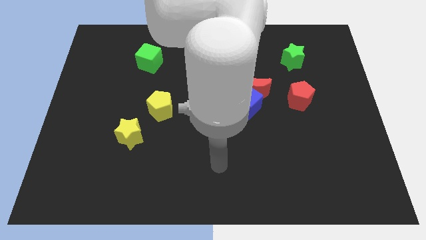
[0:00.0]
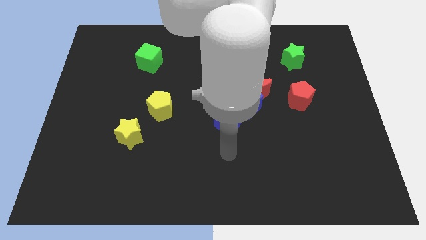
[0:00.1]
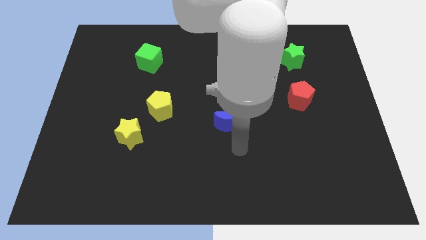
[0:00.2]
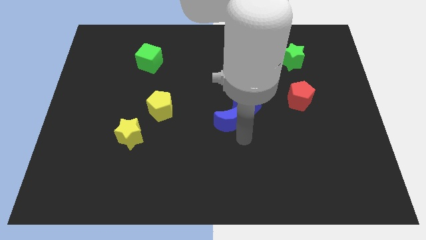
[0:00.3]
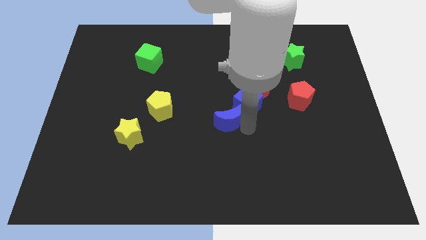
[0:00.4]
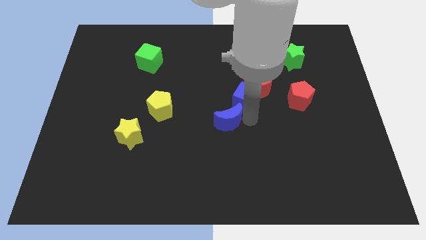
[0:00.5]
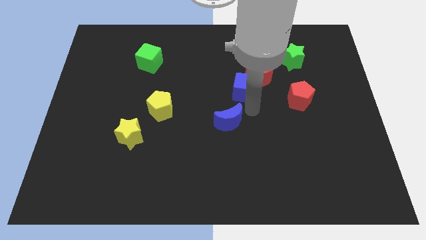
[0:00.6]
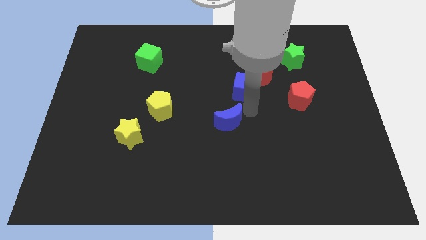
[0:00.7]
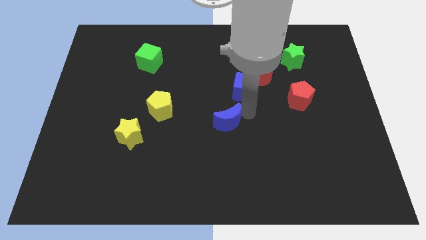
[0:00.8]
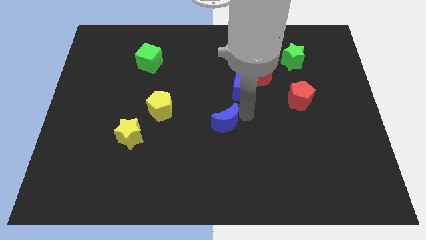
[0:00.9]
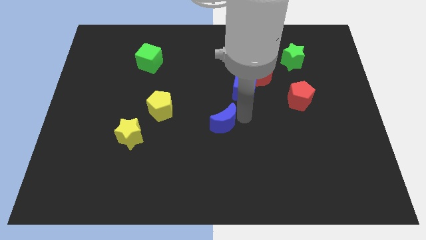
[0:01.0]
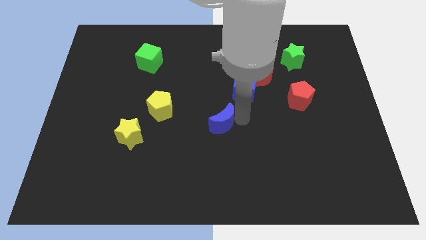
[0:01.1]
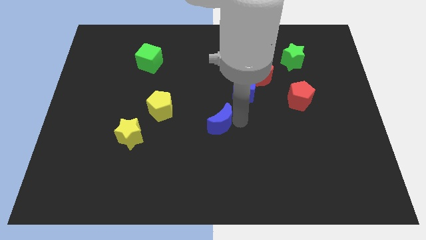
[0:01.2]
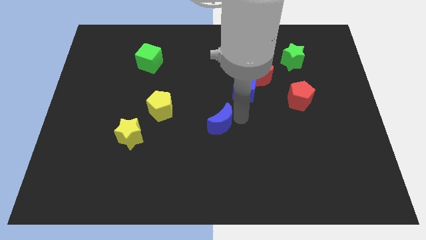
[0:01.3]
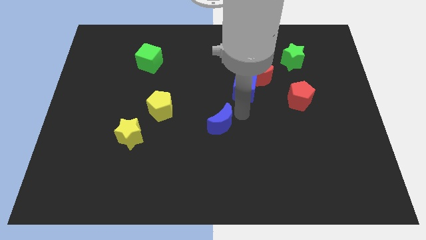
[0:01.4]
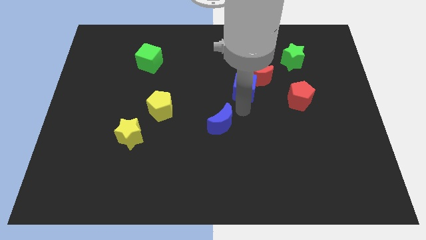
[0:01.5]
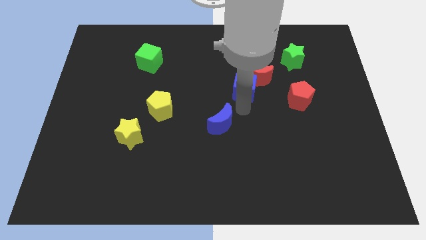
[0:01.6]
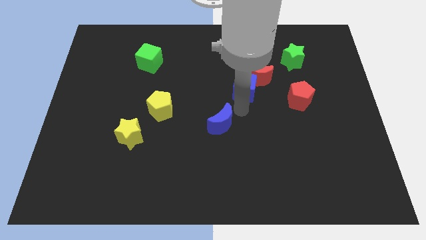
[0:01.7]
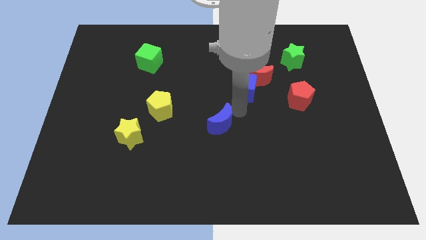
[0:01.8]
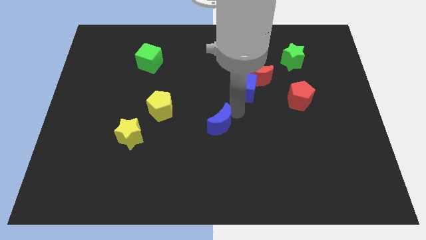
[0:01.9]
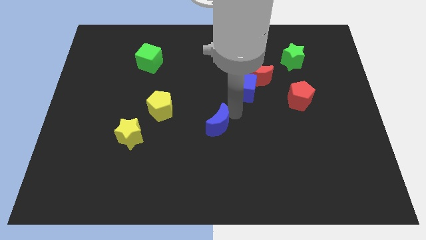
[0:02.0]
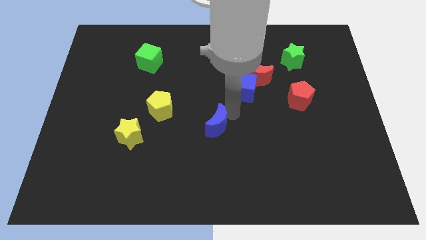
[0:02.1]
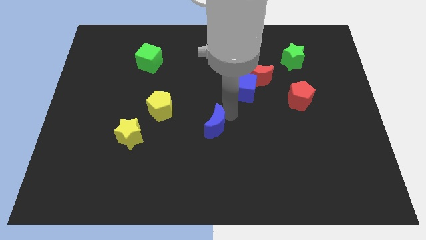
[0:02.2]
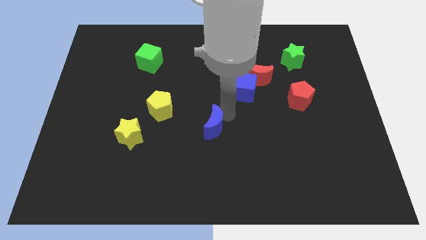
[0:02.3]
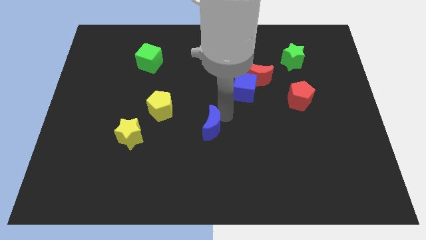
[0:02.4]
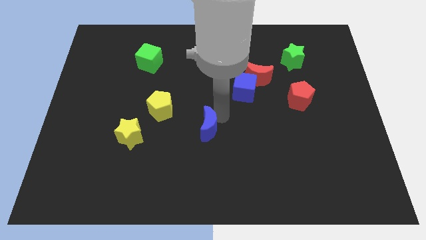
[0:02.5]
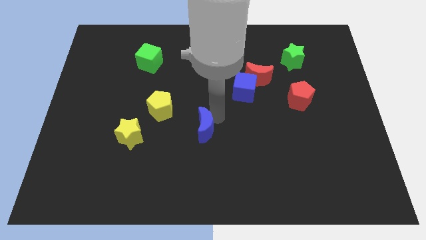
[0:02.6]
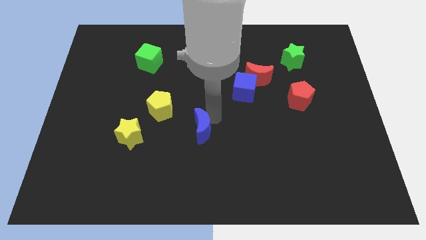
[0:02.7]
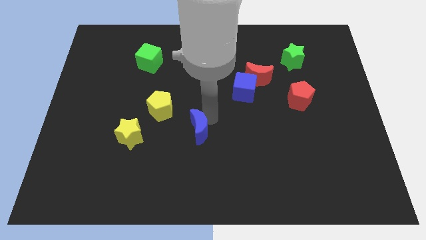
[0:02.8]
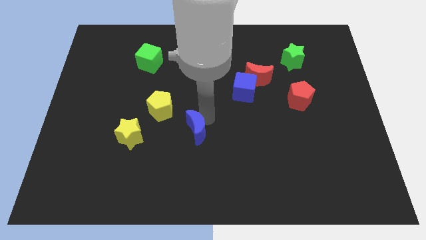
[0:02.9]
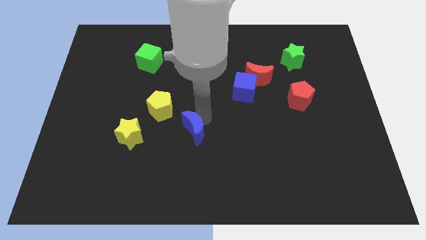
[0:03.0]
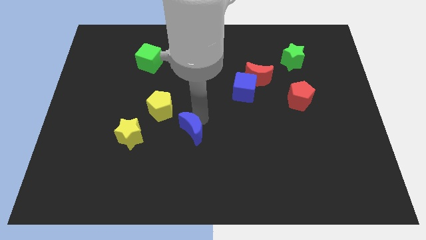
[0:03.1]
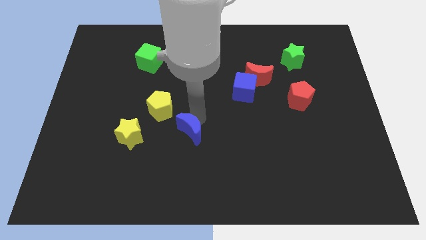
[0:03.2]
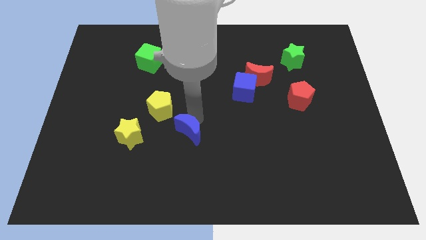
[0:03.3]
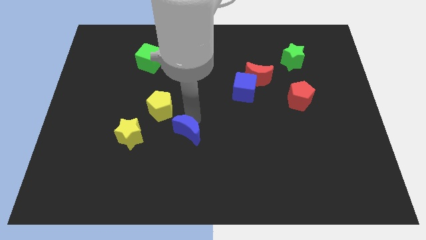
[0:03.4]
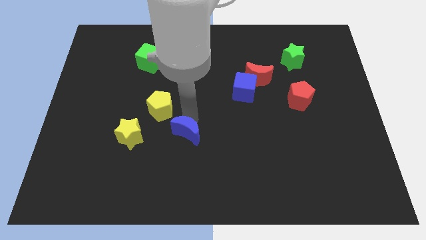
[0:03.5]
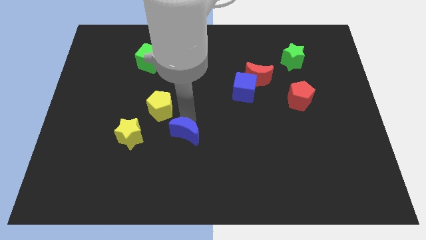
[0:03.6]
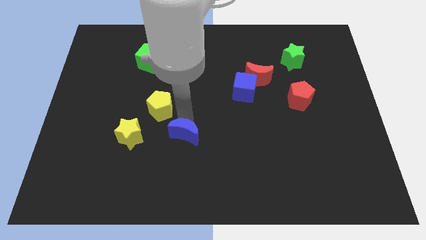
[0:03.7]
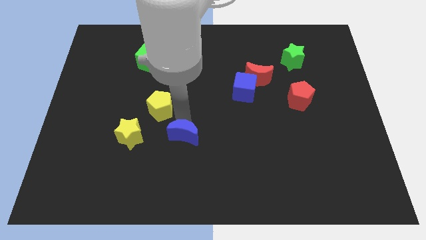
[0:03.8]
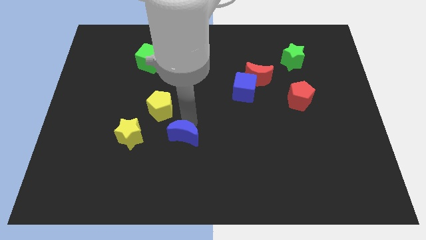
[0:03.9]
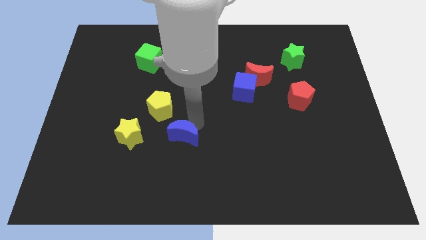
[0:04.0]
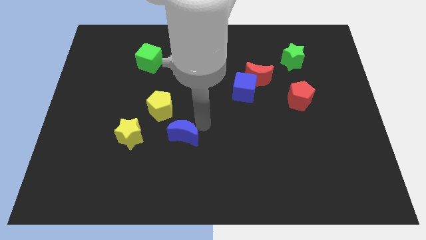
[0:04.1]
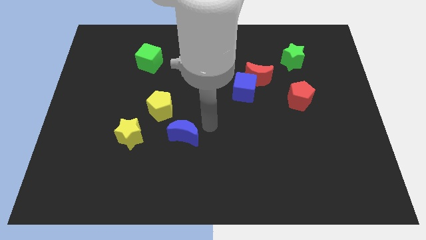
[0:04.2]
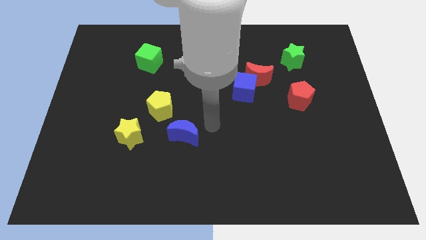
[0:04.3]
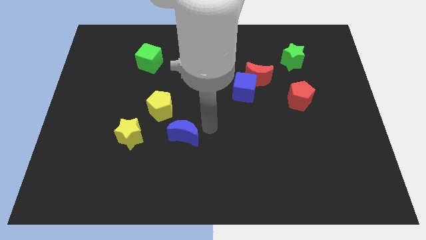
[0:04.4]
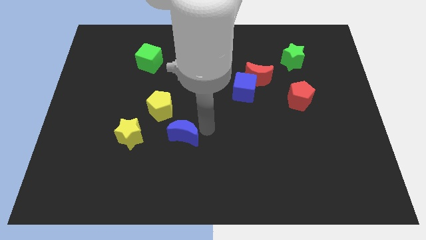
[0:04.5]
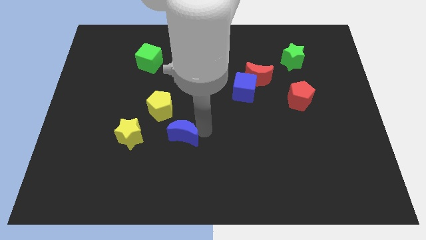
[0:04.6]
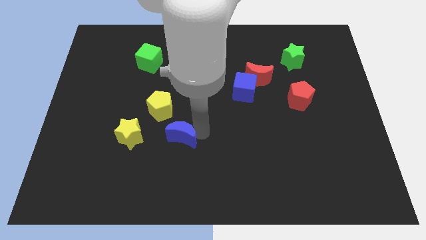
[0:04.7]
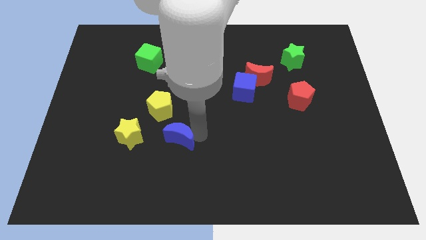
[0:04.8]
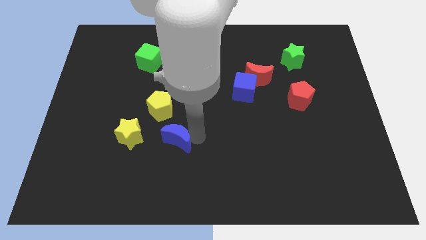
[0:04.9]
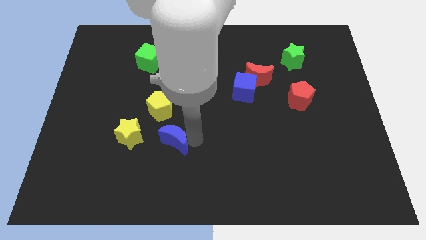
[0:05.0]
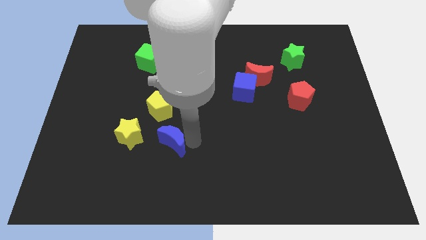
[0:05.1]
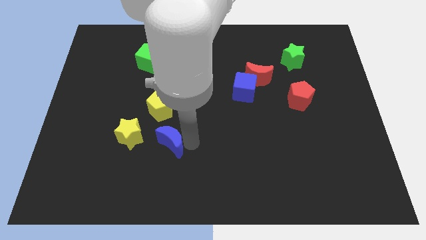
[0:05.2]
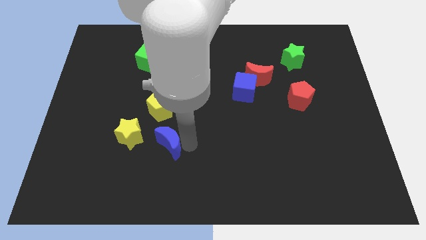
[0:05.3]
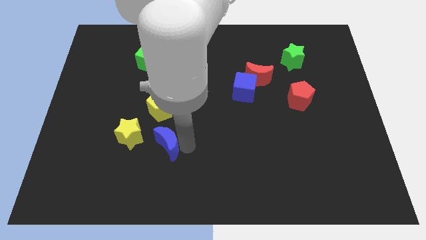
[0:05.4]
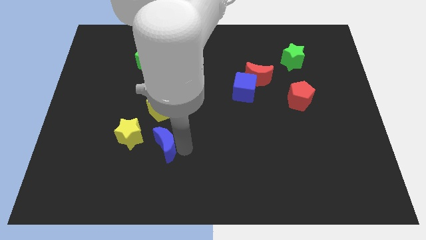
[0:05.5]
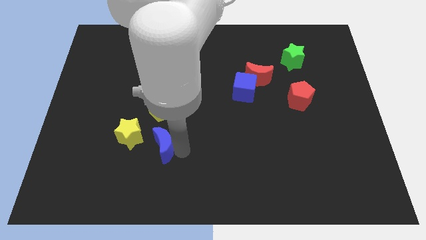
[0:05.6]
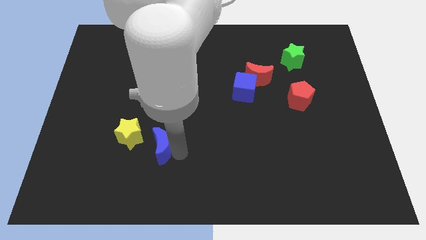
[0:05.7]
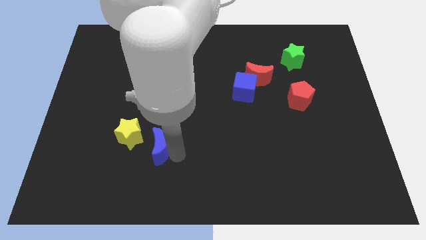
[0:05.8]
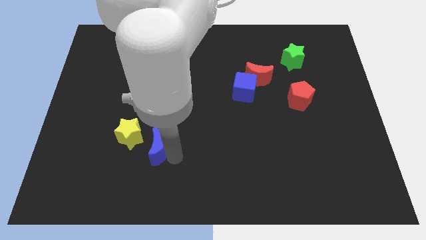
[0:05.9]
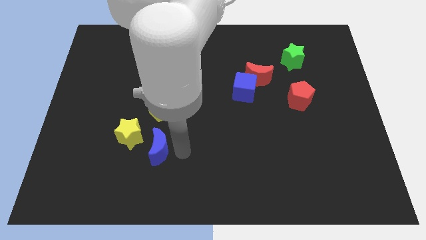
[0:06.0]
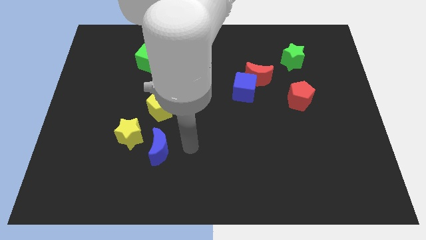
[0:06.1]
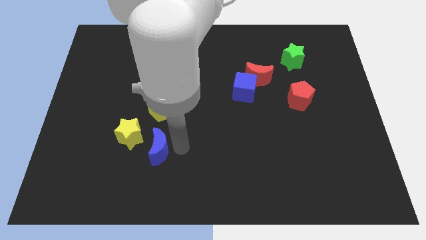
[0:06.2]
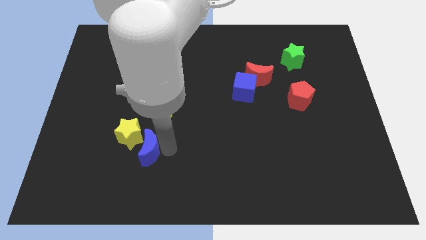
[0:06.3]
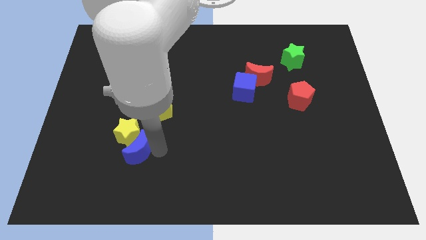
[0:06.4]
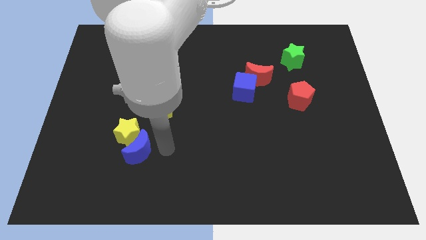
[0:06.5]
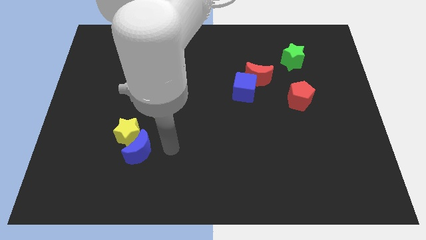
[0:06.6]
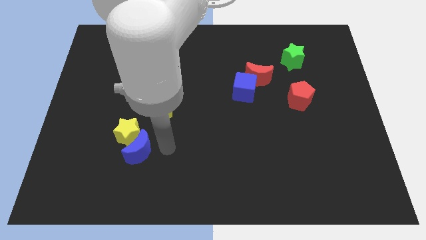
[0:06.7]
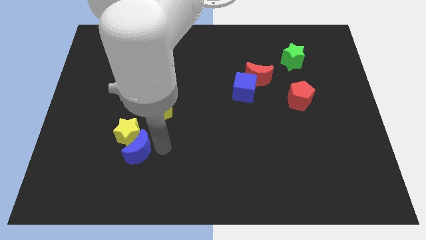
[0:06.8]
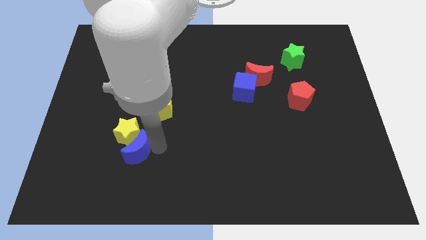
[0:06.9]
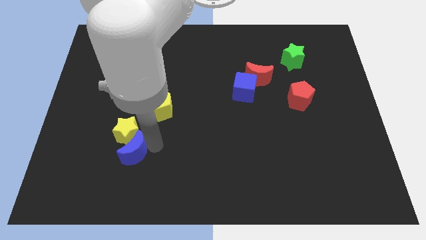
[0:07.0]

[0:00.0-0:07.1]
put the blue moon to the bottom left of the yellow star

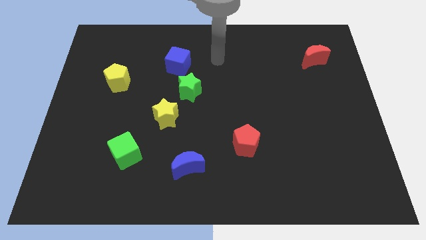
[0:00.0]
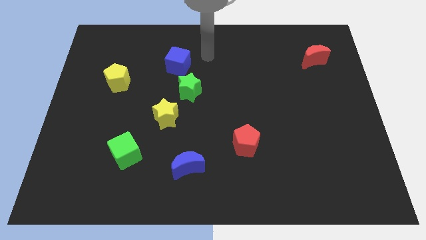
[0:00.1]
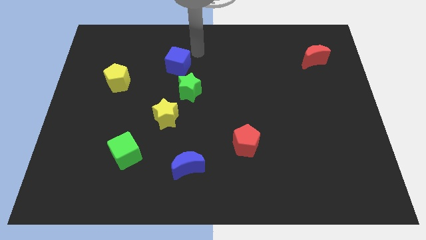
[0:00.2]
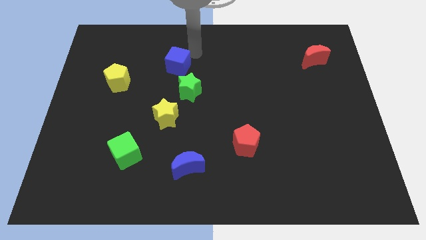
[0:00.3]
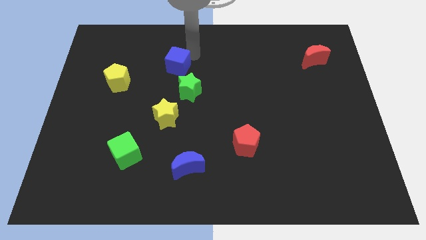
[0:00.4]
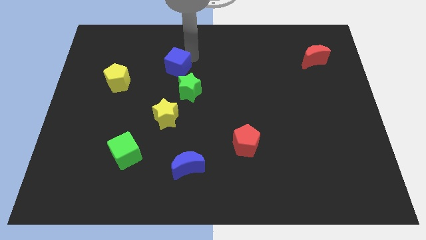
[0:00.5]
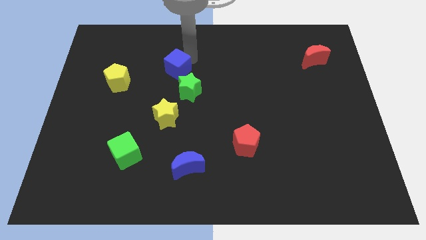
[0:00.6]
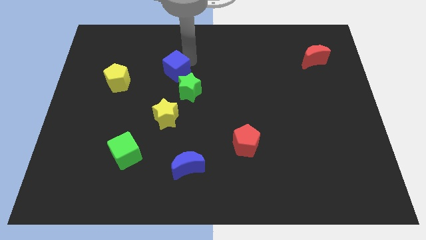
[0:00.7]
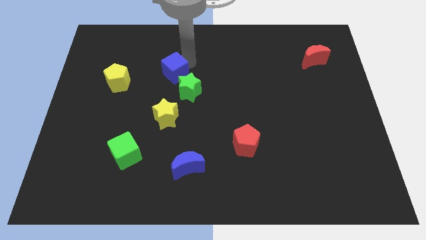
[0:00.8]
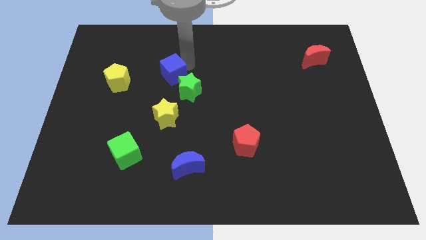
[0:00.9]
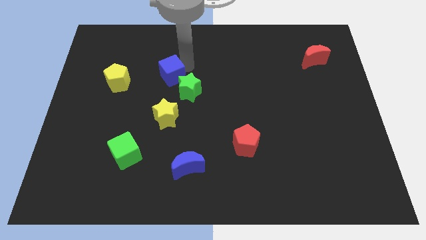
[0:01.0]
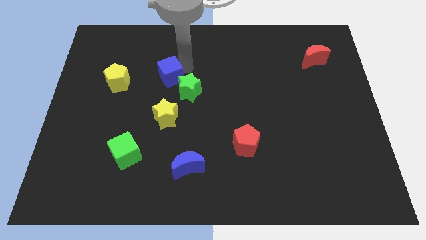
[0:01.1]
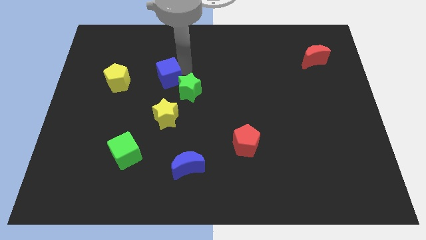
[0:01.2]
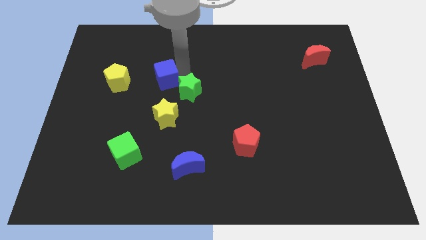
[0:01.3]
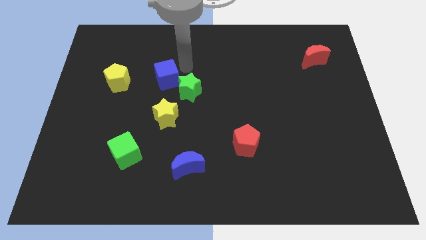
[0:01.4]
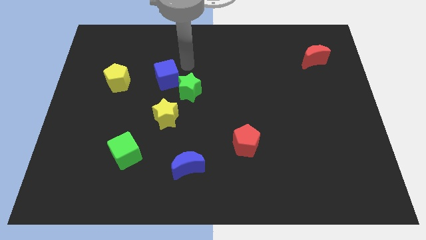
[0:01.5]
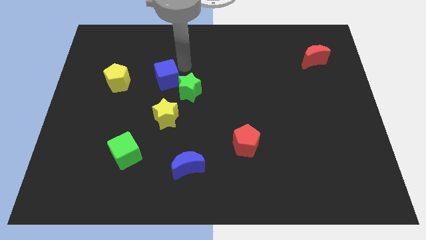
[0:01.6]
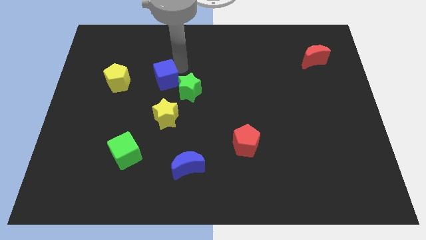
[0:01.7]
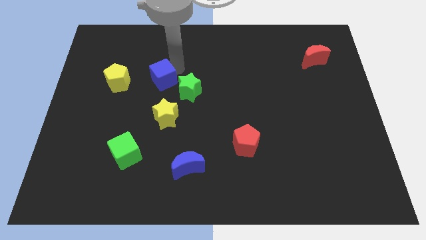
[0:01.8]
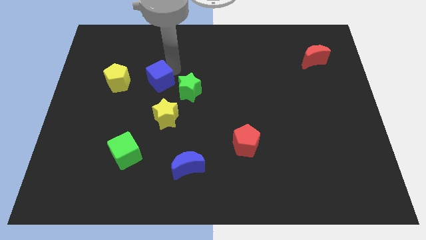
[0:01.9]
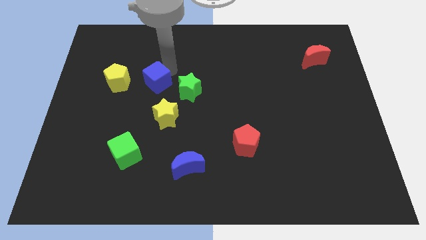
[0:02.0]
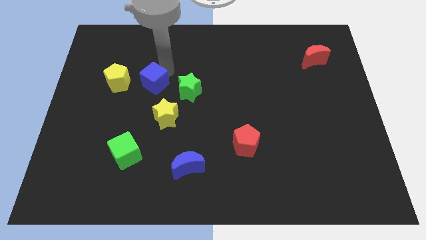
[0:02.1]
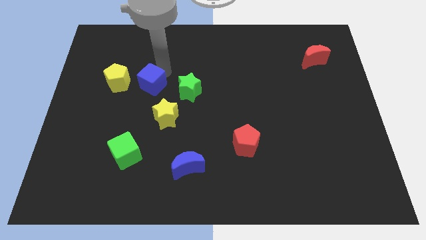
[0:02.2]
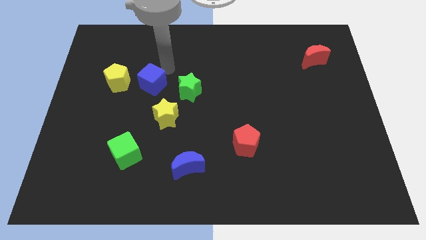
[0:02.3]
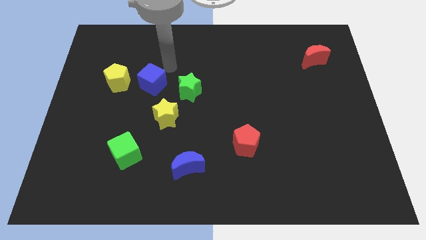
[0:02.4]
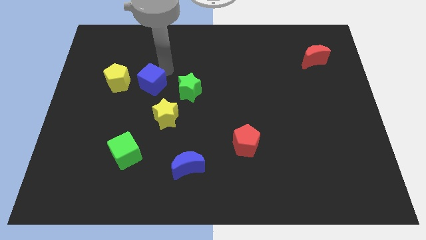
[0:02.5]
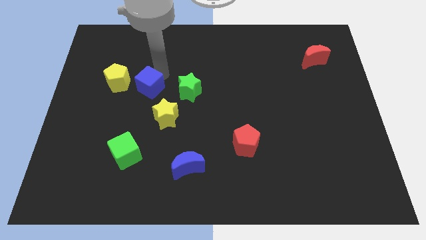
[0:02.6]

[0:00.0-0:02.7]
push the blue cube diagonally down and to the right of the yellow pentagon
